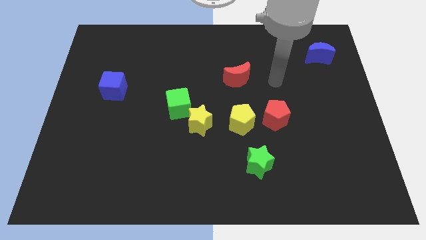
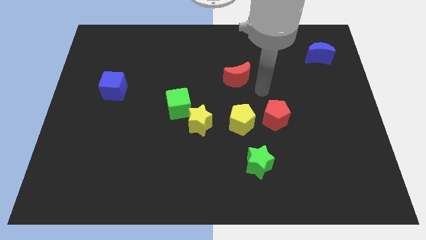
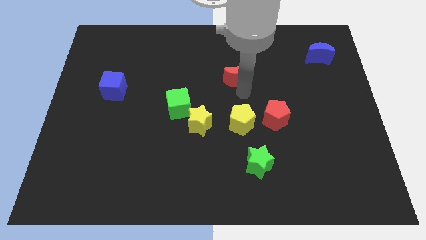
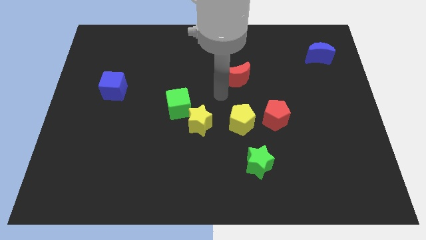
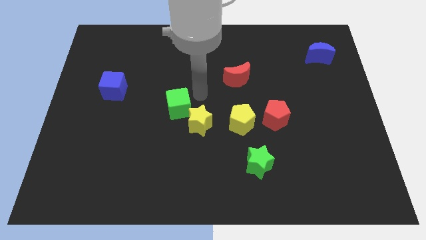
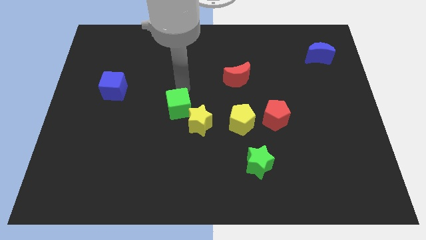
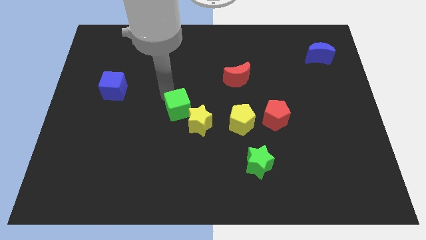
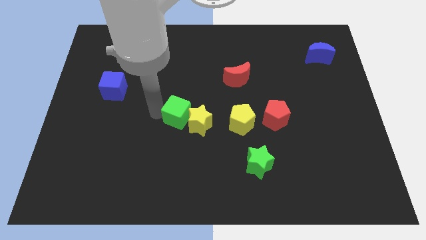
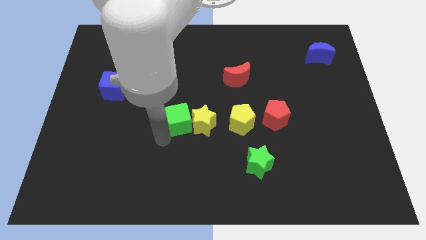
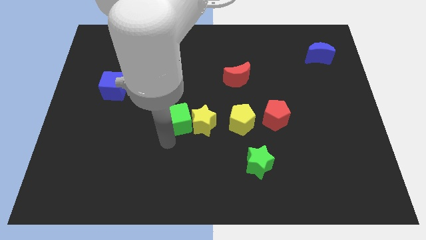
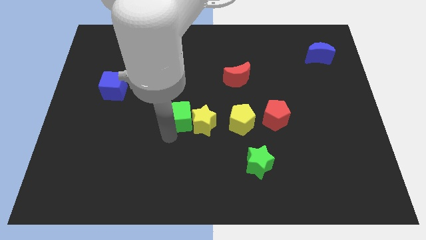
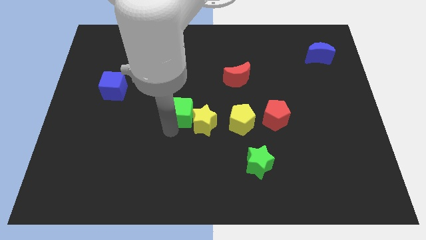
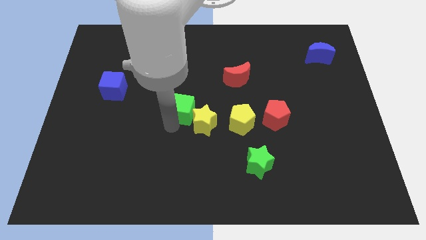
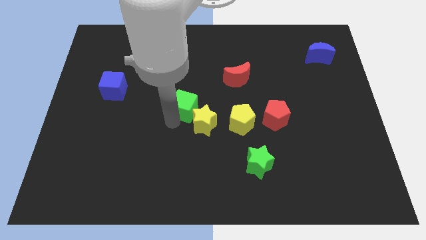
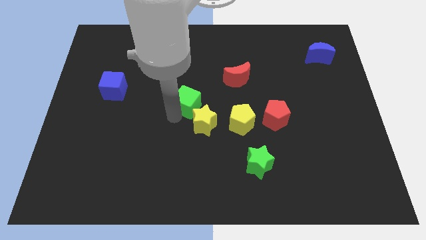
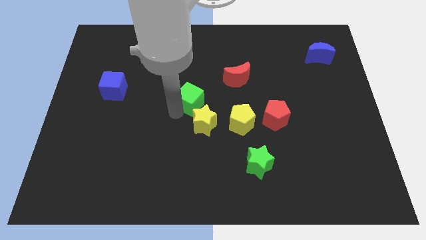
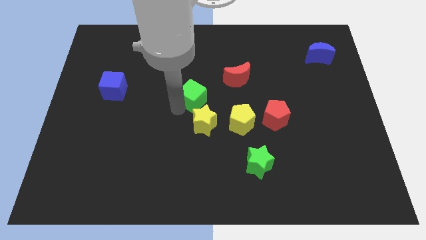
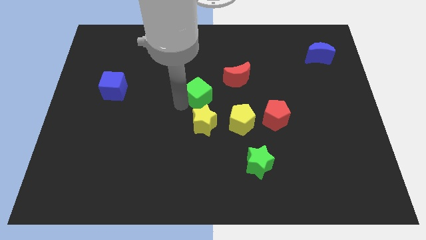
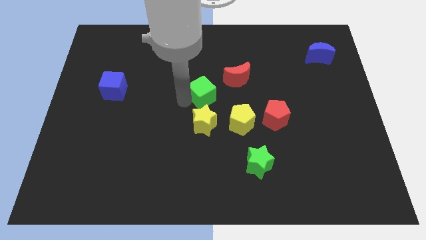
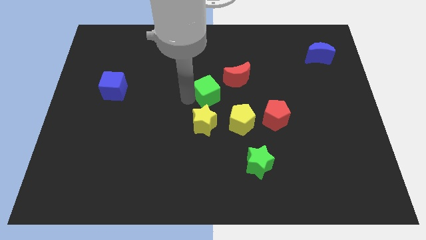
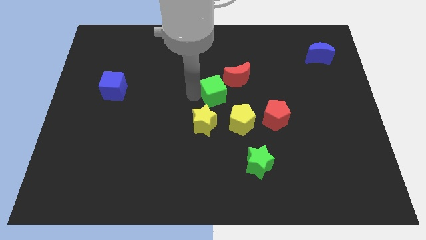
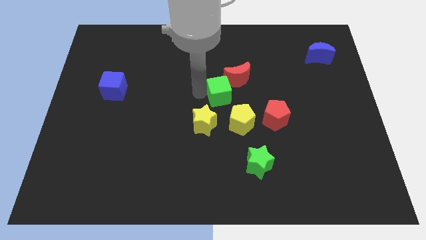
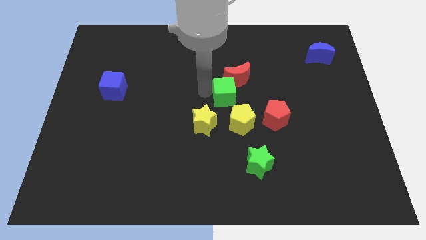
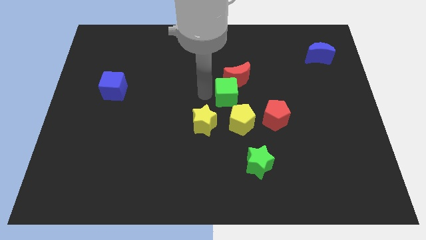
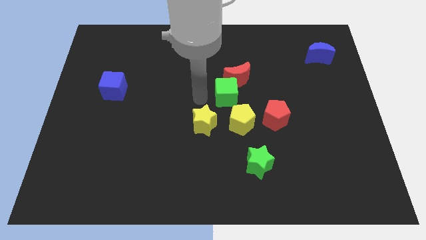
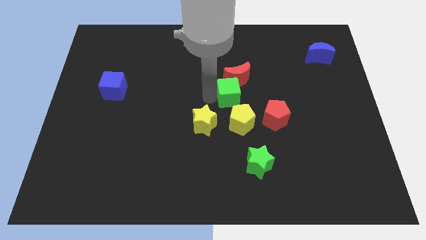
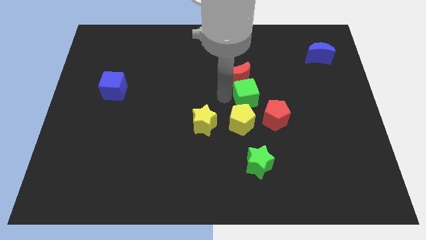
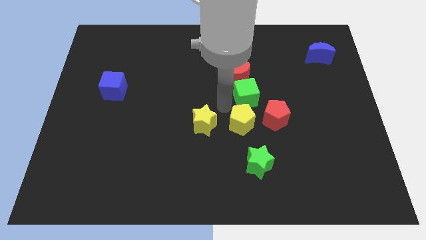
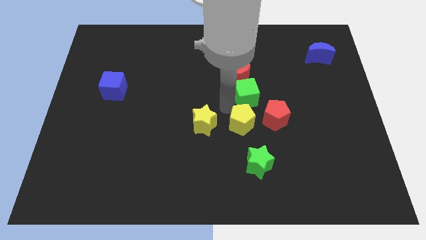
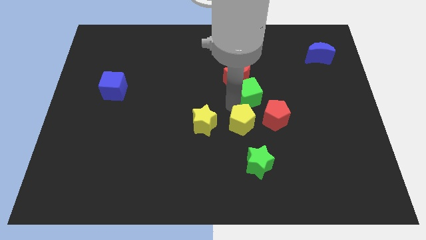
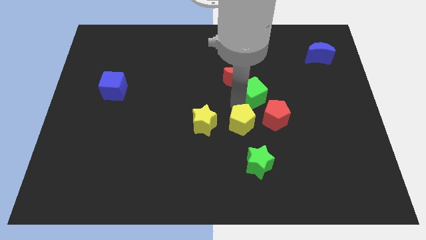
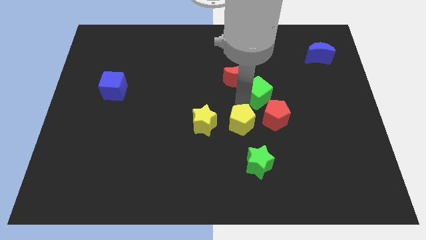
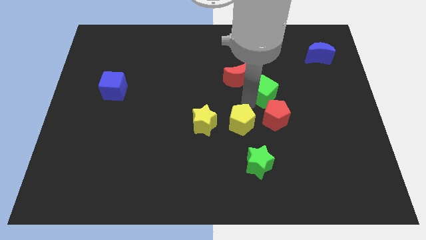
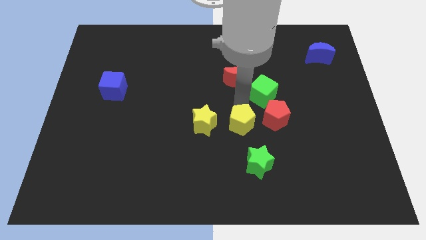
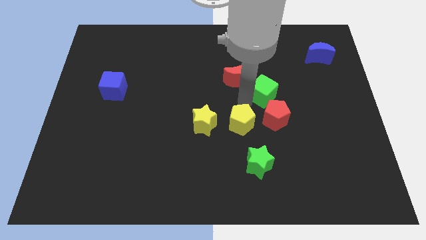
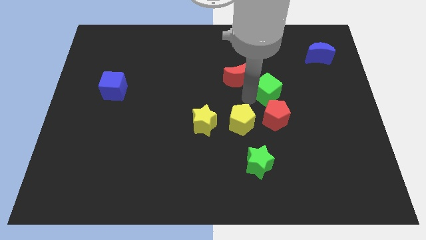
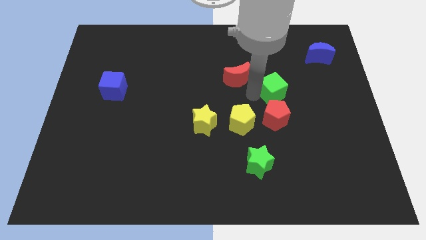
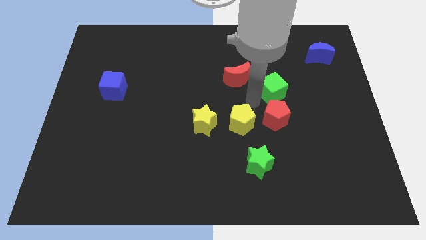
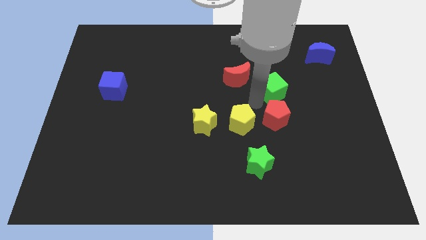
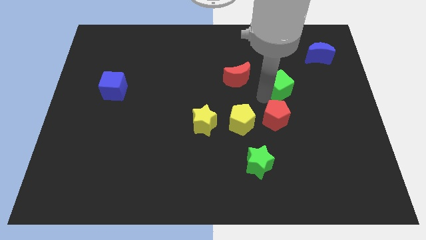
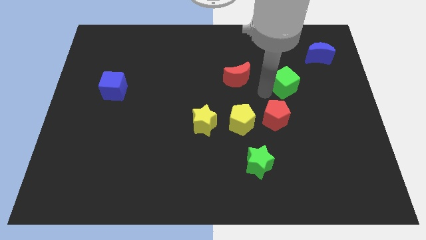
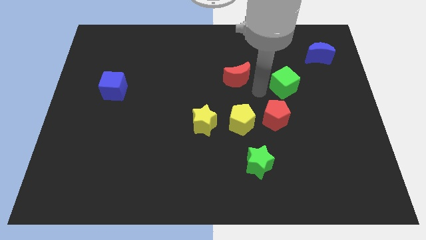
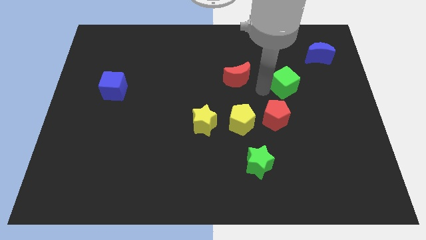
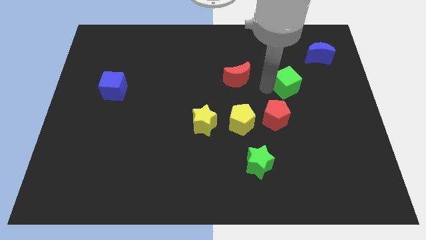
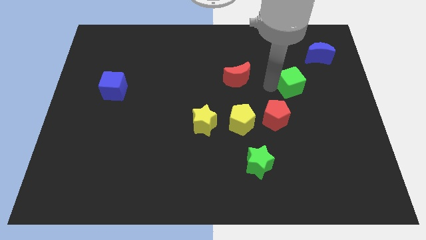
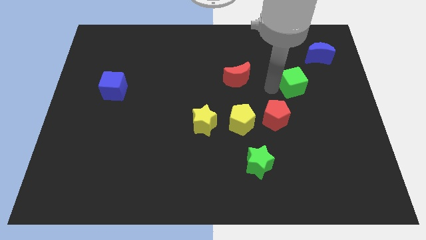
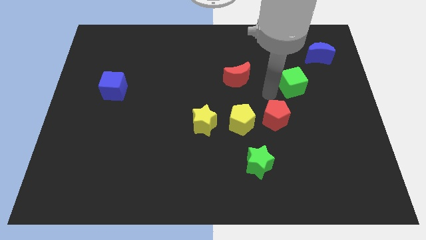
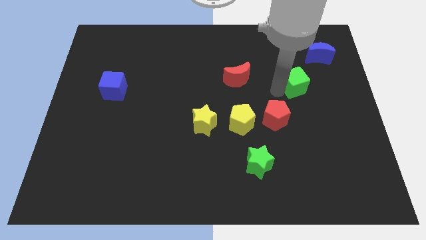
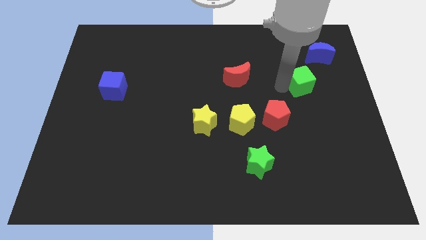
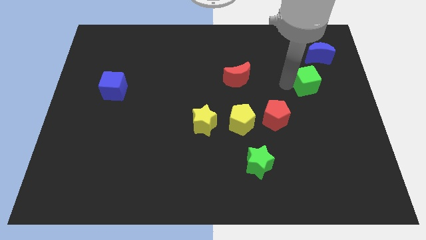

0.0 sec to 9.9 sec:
put the green cube to the bottom of the blue moon

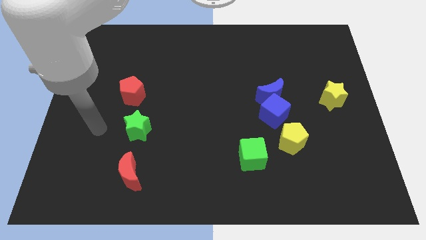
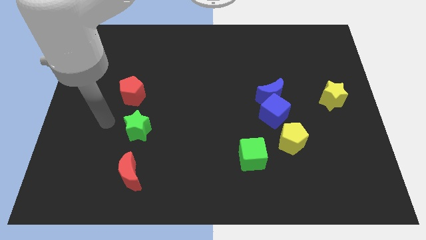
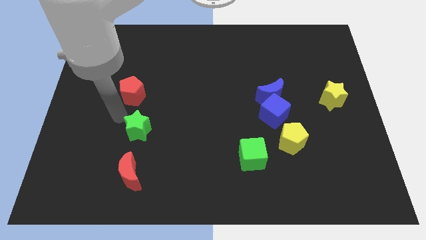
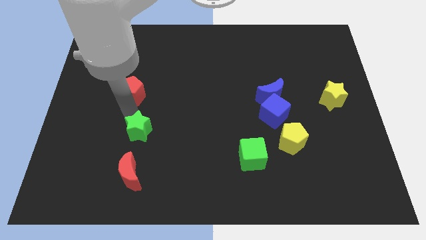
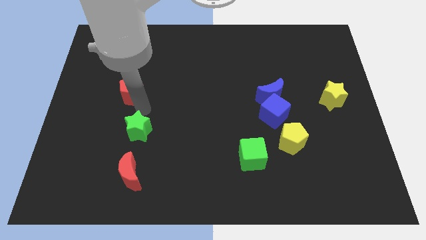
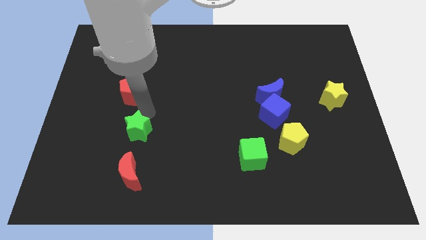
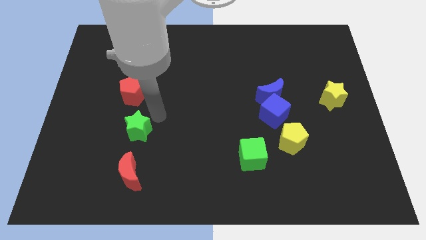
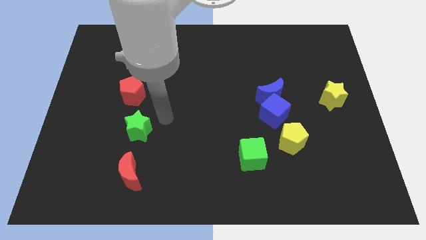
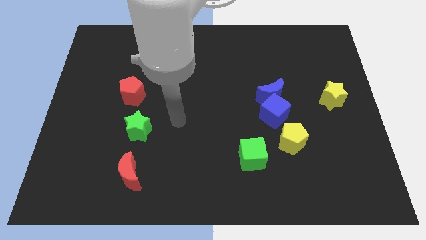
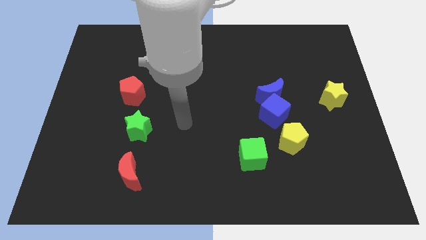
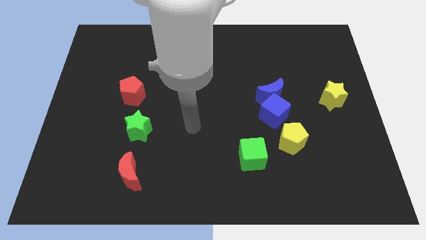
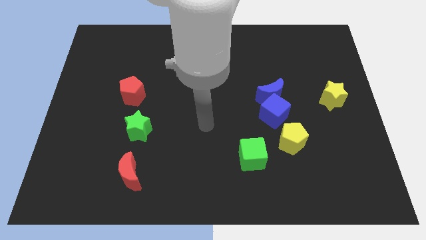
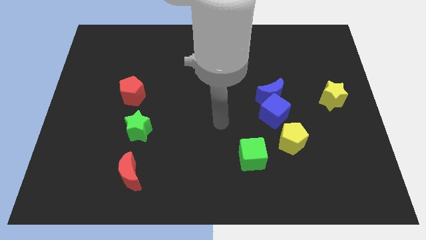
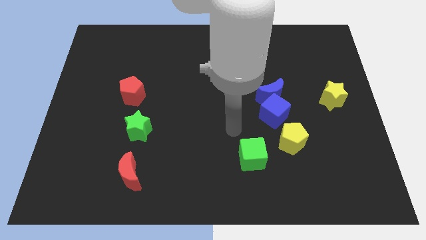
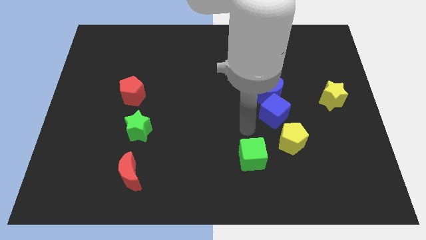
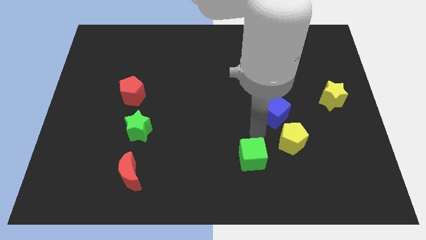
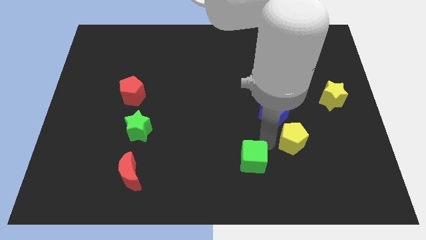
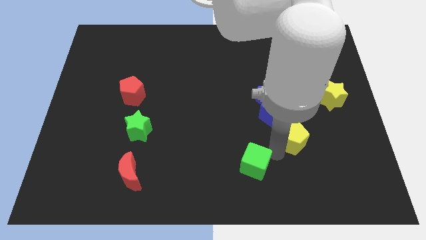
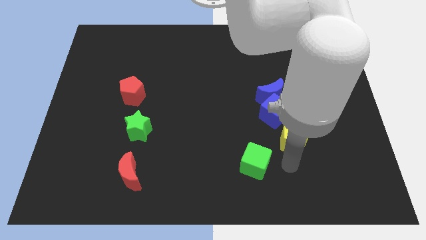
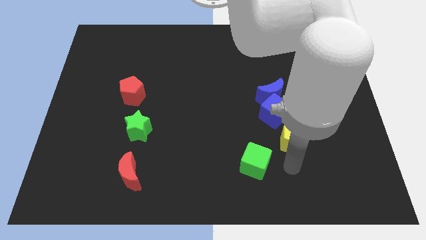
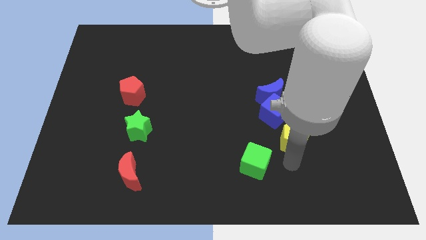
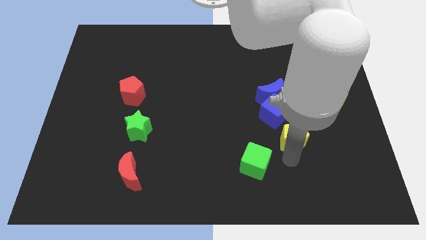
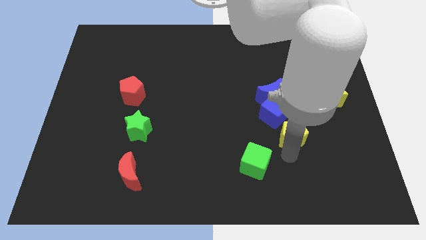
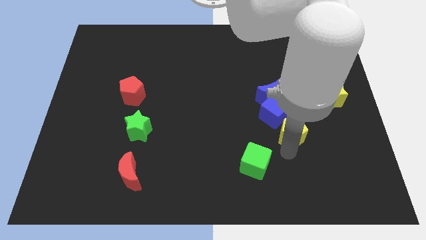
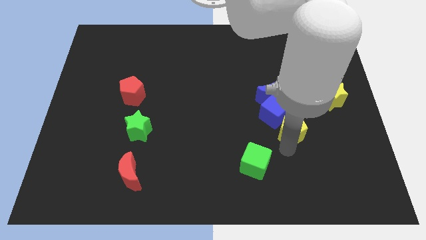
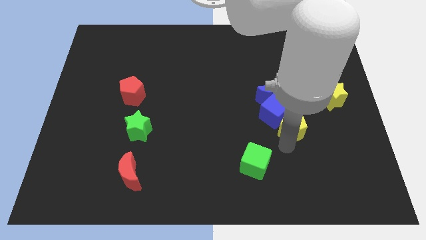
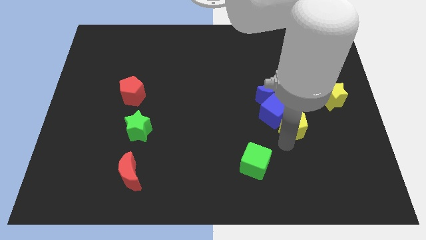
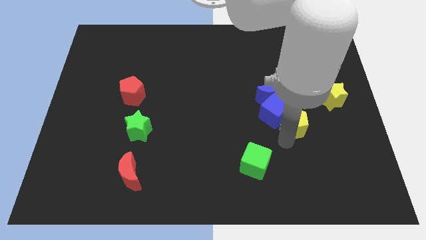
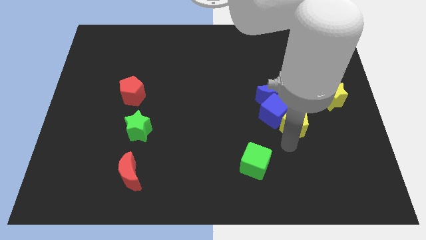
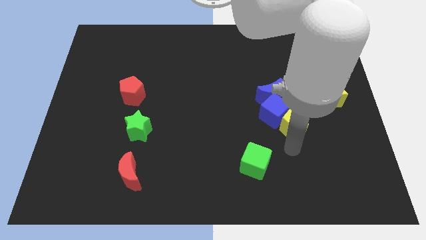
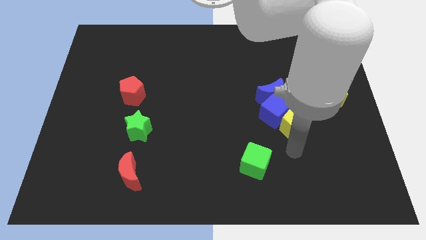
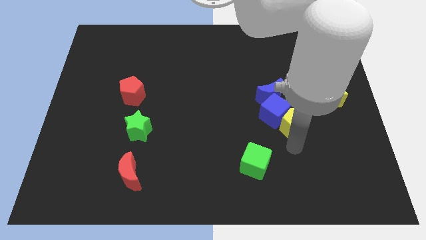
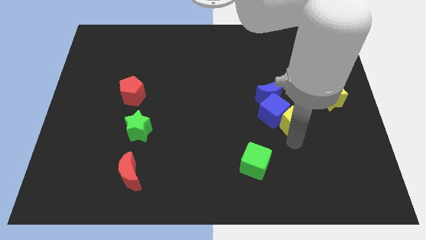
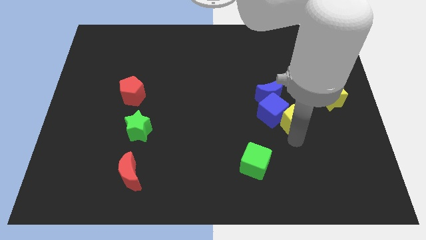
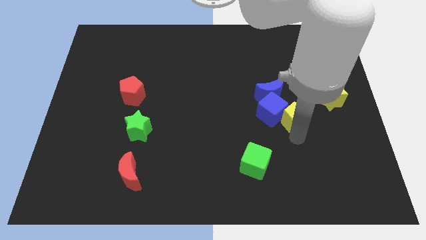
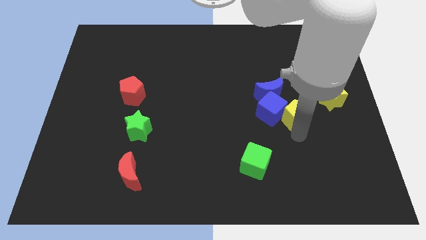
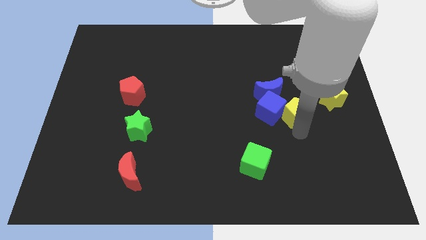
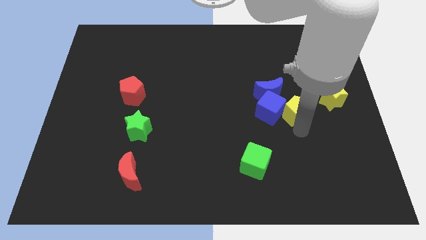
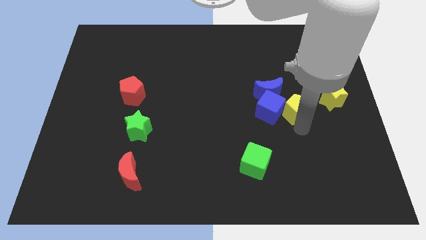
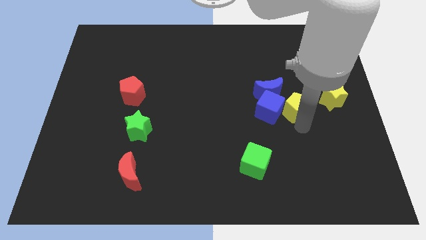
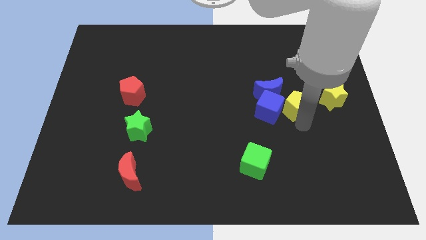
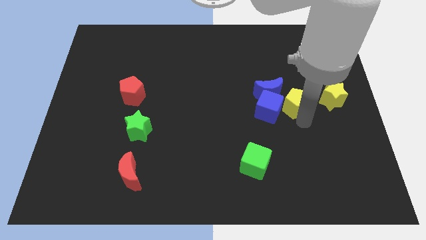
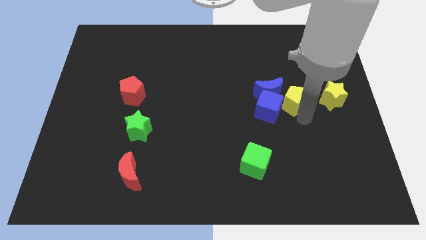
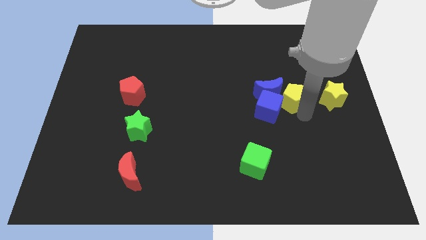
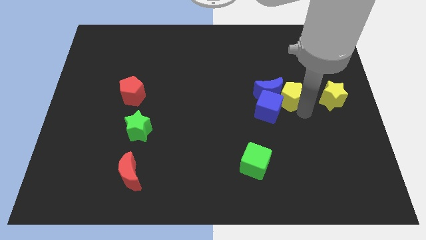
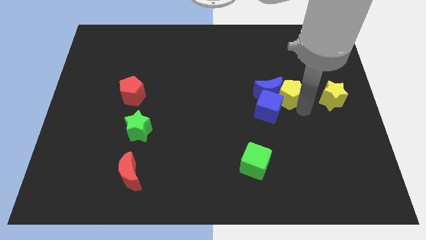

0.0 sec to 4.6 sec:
put the yellow pentagon to the top right side of the blue moon
